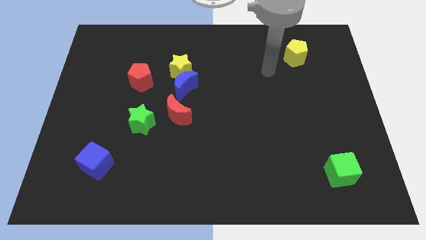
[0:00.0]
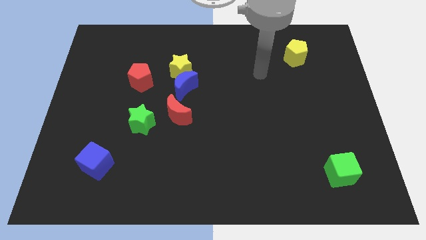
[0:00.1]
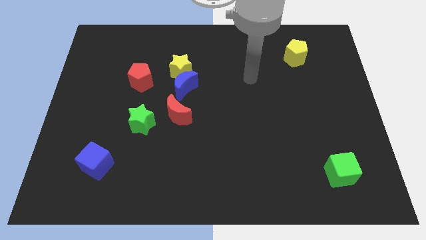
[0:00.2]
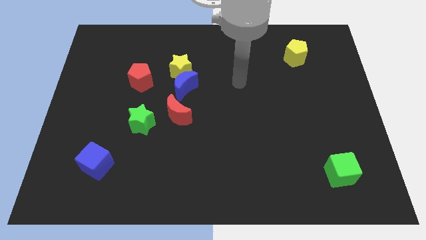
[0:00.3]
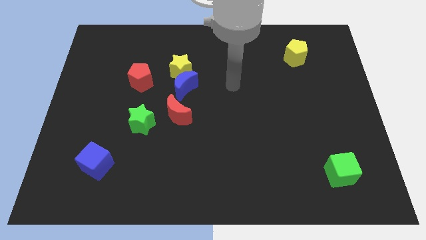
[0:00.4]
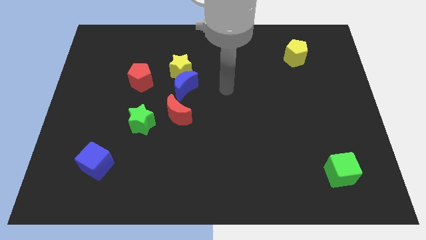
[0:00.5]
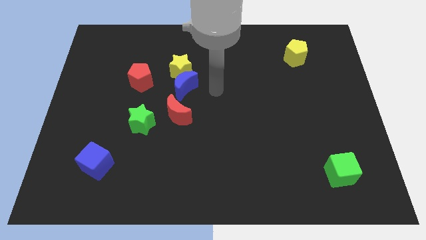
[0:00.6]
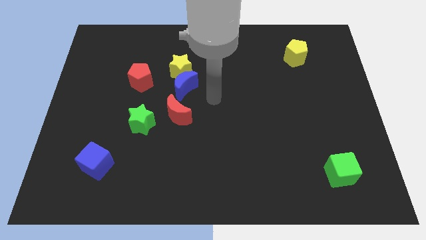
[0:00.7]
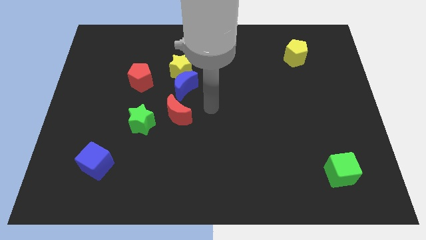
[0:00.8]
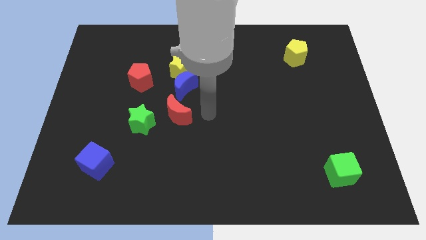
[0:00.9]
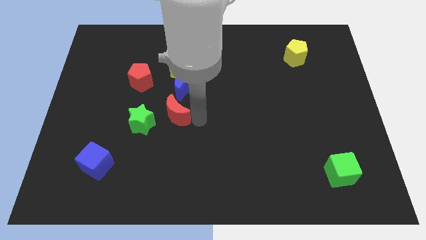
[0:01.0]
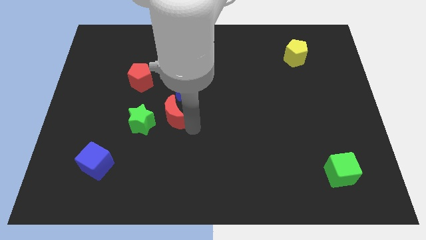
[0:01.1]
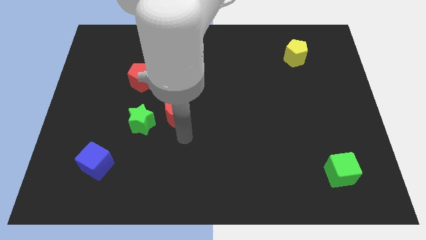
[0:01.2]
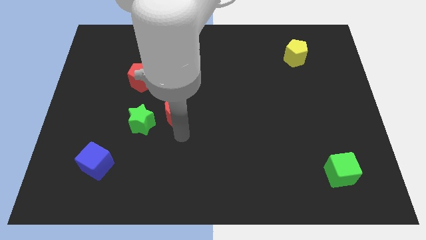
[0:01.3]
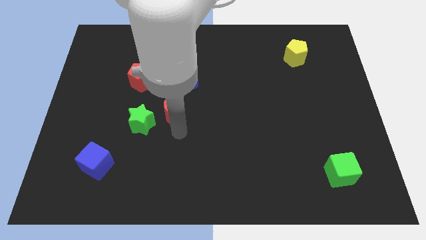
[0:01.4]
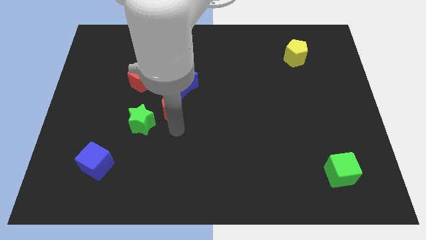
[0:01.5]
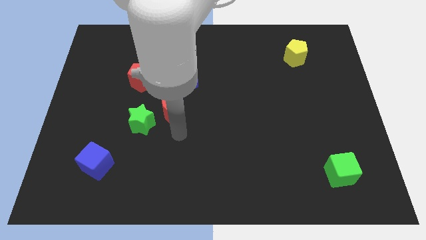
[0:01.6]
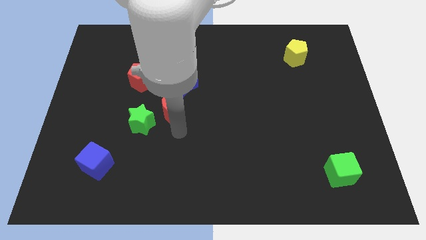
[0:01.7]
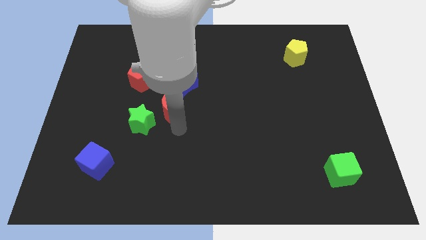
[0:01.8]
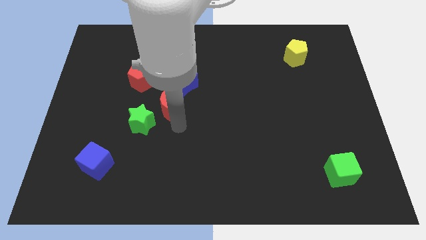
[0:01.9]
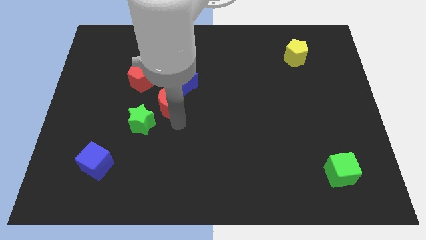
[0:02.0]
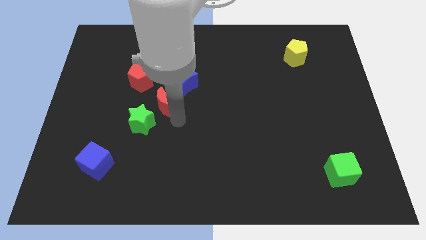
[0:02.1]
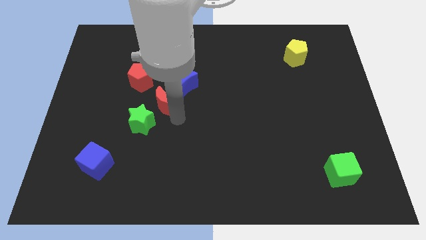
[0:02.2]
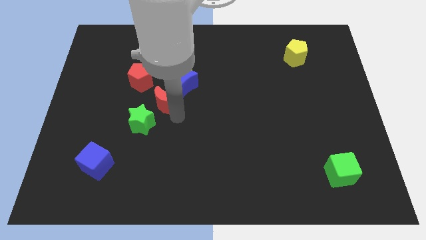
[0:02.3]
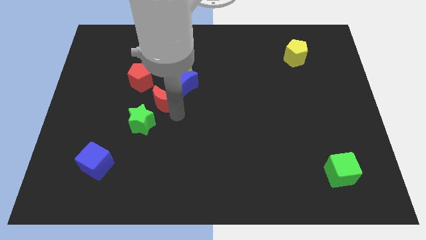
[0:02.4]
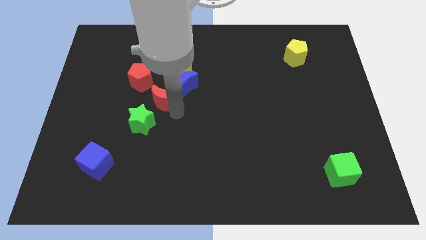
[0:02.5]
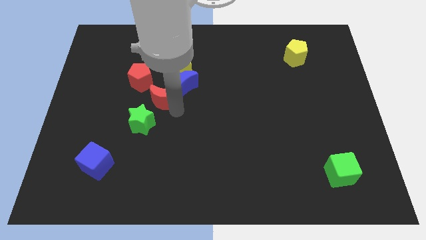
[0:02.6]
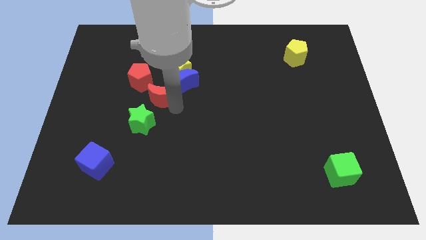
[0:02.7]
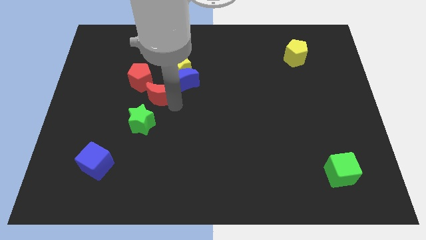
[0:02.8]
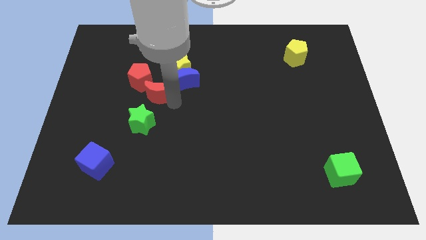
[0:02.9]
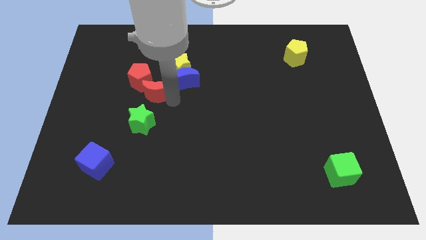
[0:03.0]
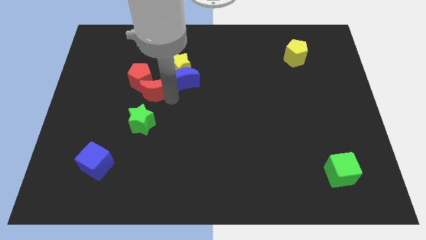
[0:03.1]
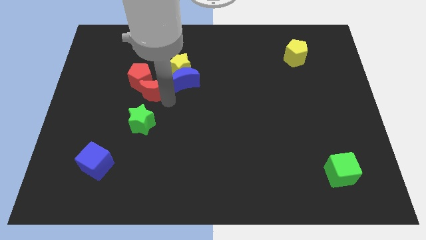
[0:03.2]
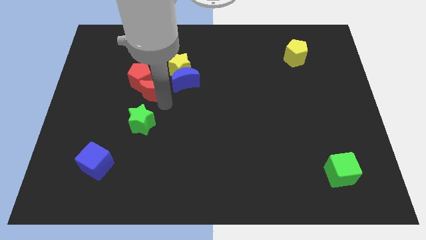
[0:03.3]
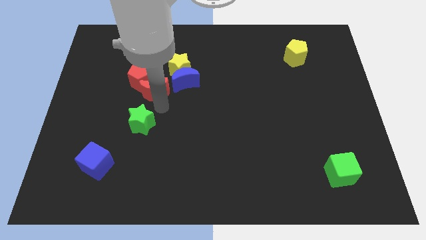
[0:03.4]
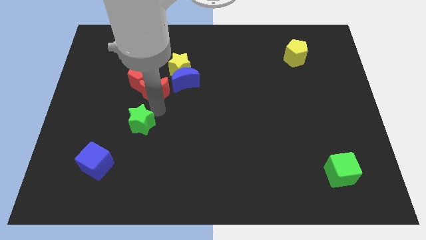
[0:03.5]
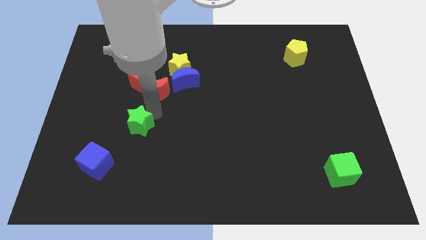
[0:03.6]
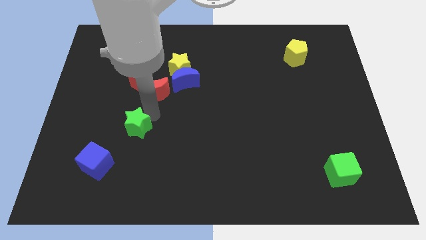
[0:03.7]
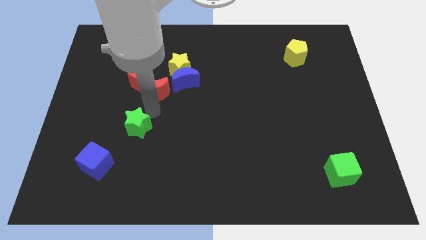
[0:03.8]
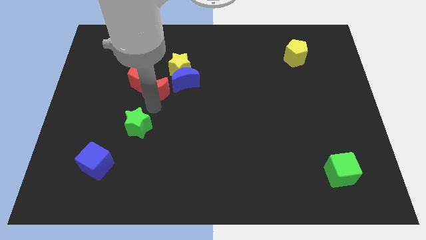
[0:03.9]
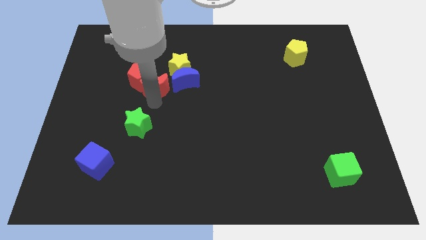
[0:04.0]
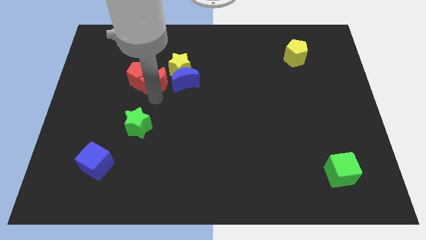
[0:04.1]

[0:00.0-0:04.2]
push the red moon a bit upwards

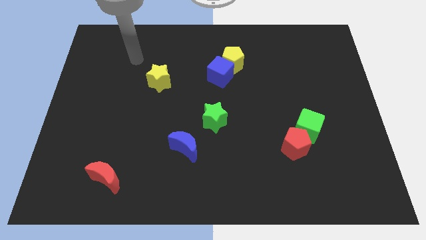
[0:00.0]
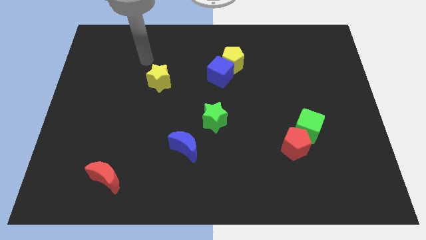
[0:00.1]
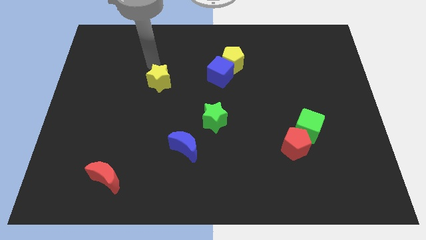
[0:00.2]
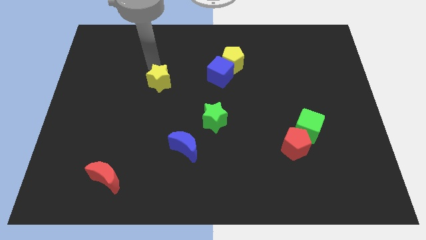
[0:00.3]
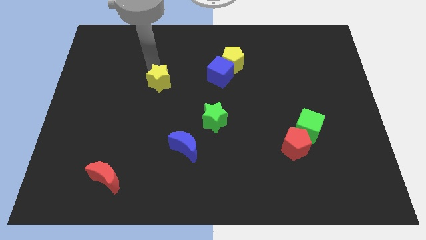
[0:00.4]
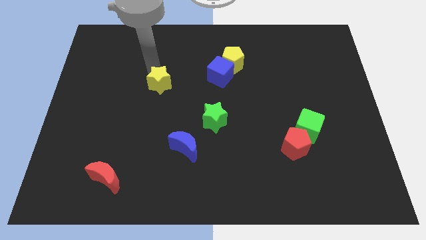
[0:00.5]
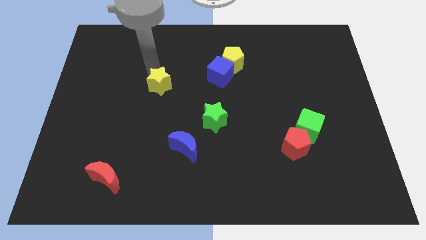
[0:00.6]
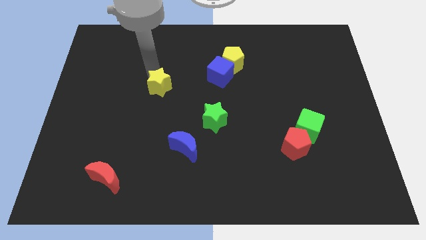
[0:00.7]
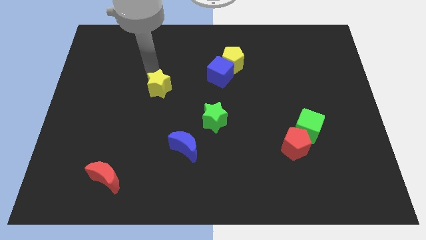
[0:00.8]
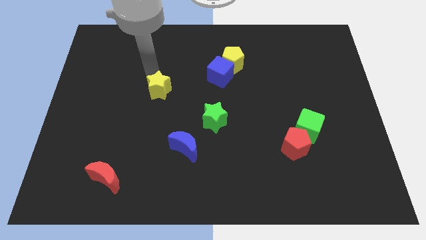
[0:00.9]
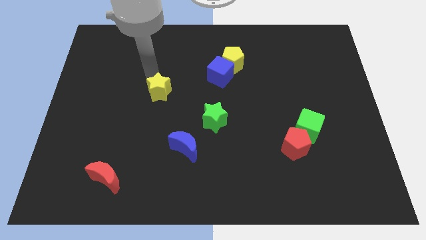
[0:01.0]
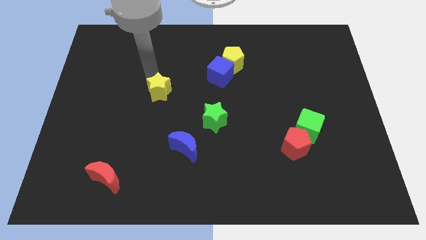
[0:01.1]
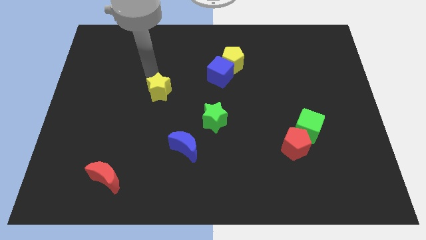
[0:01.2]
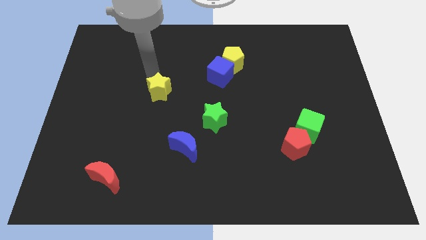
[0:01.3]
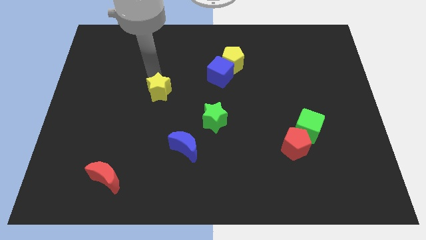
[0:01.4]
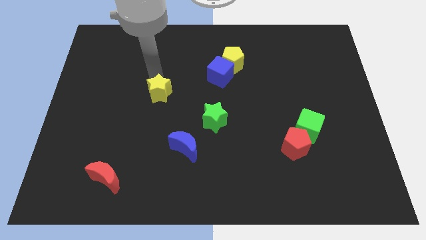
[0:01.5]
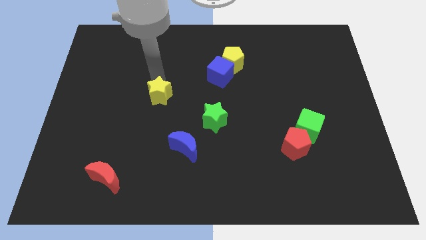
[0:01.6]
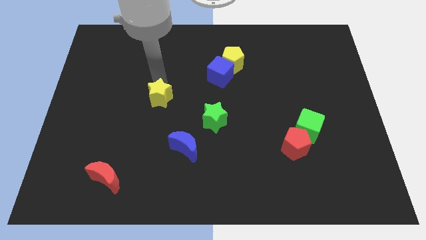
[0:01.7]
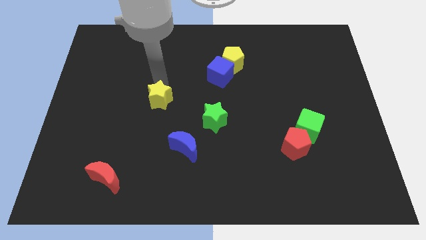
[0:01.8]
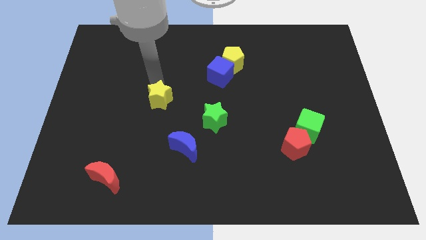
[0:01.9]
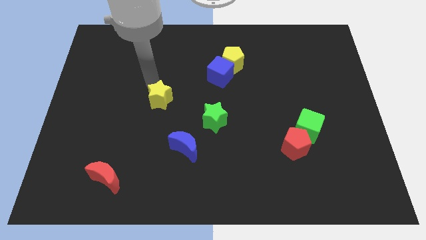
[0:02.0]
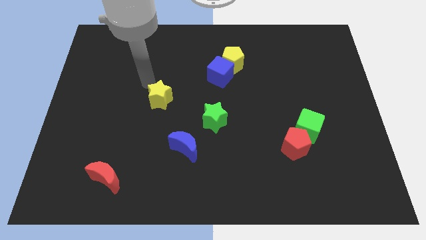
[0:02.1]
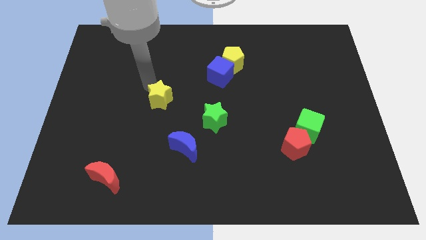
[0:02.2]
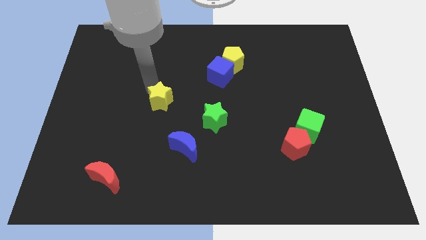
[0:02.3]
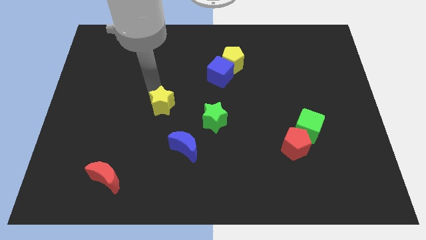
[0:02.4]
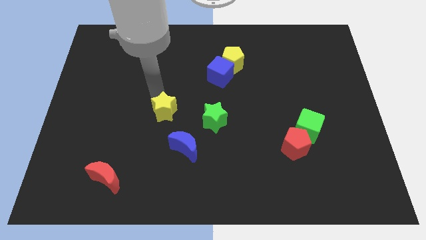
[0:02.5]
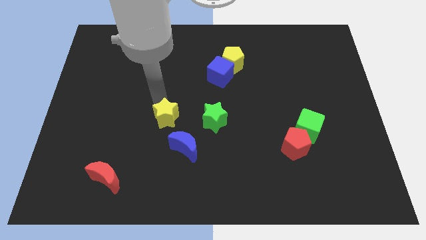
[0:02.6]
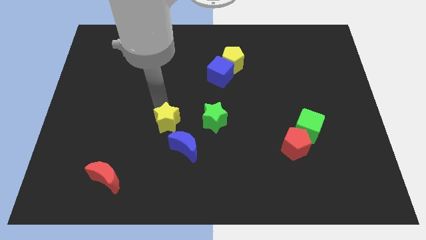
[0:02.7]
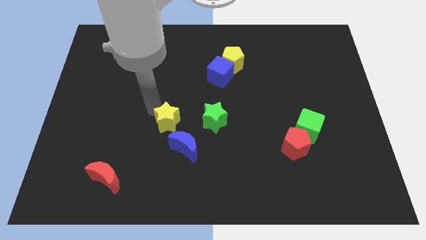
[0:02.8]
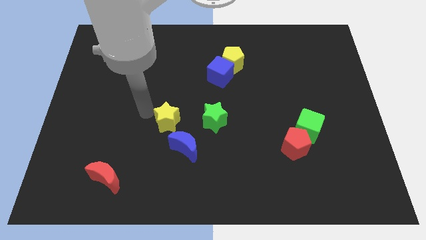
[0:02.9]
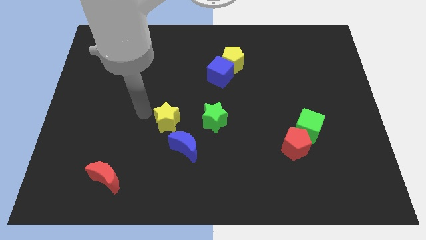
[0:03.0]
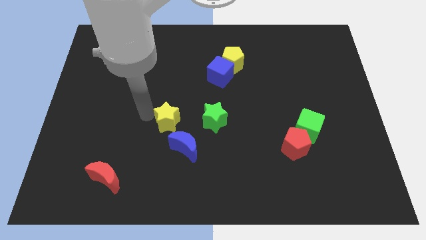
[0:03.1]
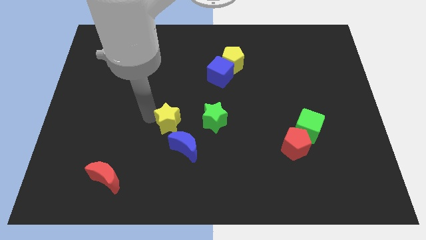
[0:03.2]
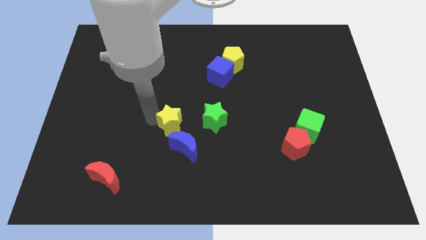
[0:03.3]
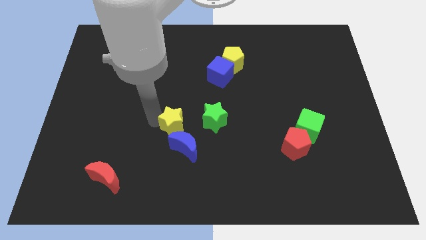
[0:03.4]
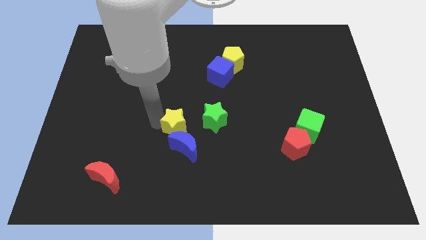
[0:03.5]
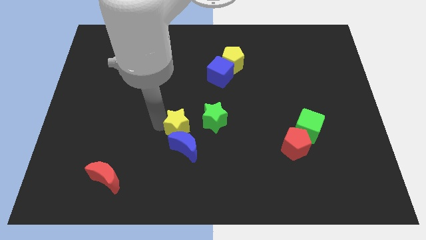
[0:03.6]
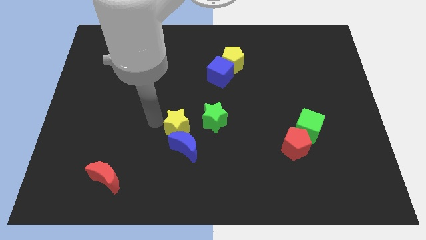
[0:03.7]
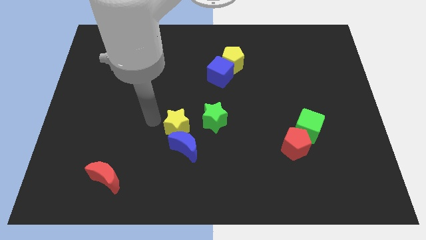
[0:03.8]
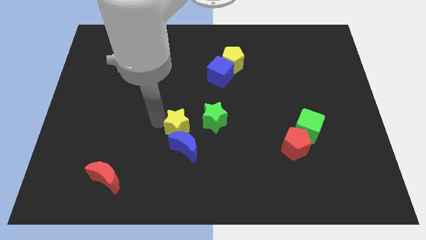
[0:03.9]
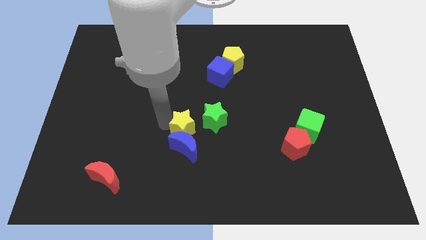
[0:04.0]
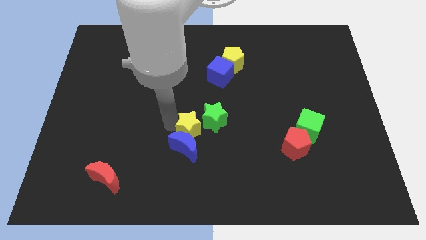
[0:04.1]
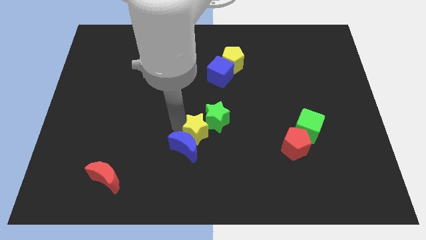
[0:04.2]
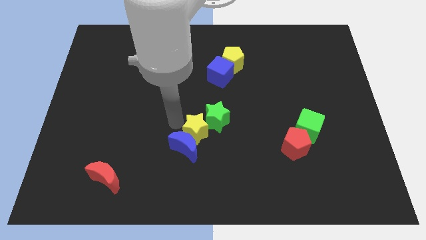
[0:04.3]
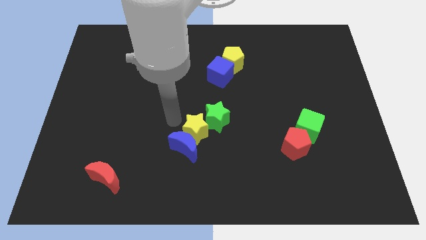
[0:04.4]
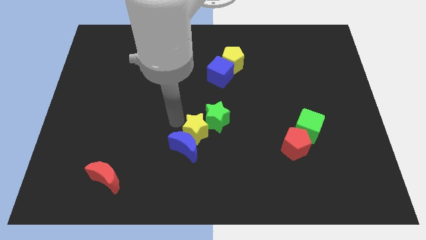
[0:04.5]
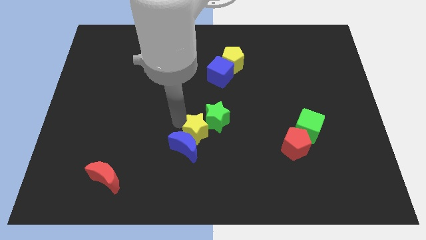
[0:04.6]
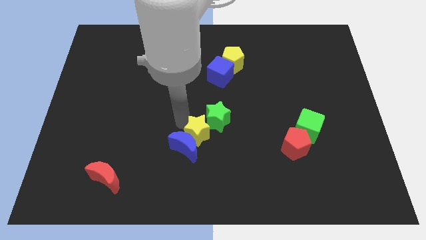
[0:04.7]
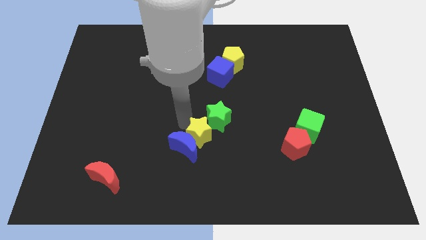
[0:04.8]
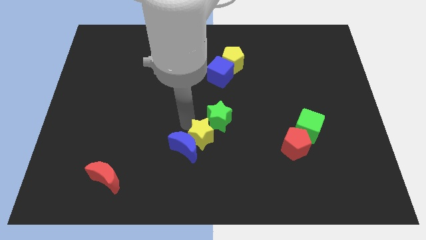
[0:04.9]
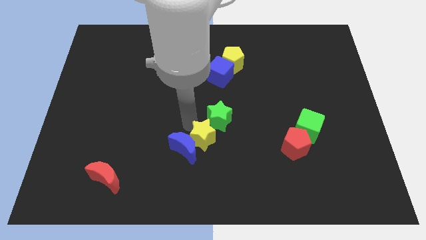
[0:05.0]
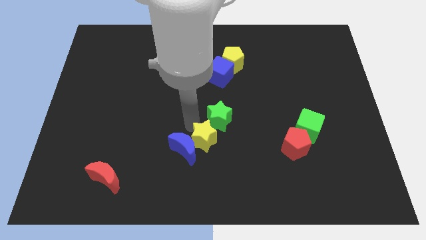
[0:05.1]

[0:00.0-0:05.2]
slide the yellow star down and right
